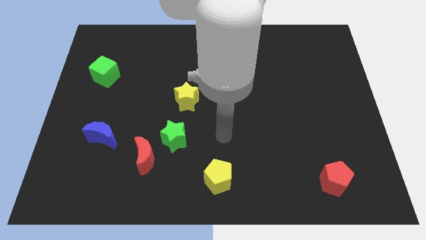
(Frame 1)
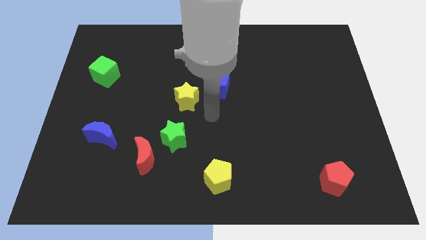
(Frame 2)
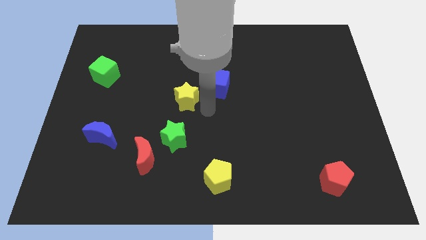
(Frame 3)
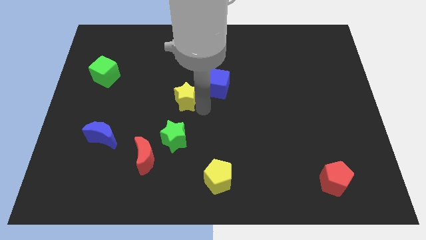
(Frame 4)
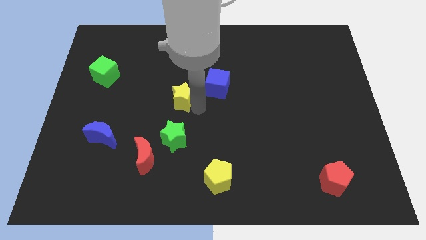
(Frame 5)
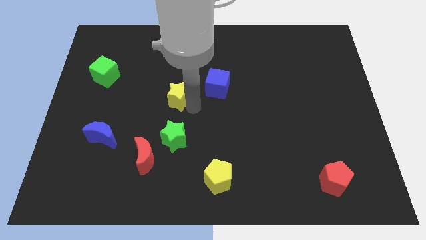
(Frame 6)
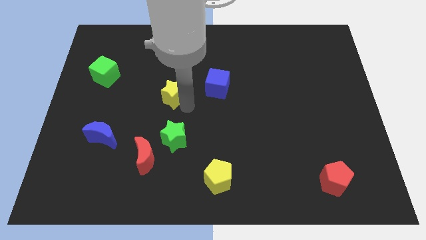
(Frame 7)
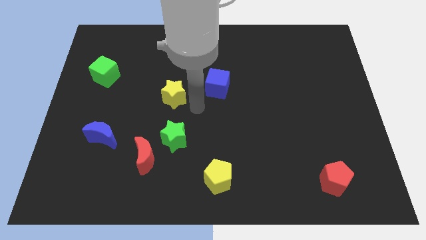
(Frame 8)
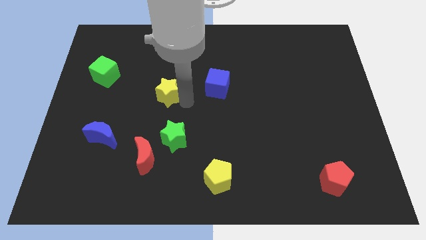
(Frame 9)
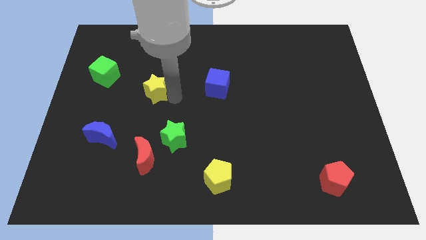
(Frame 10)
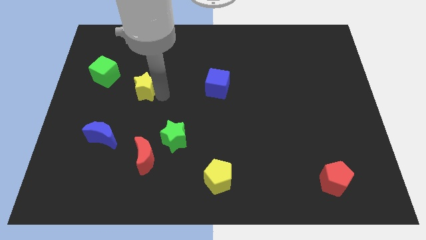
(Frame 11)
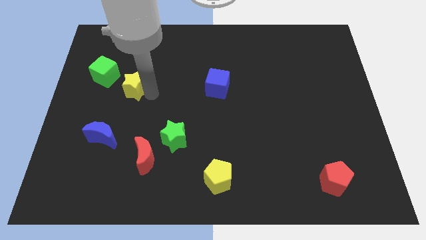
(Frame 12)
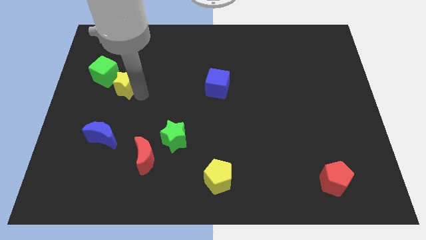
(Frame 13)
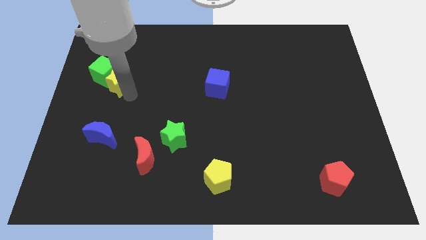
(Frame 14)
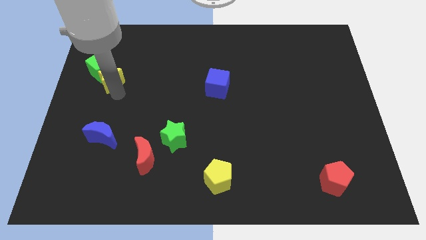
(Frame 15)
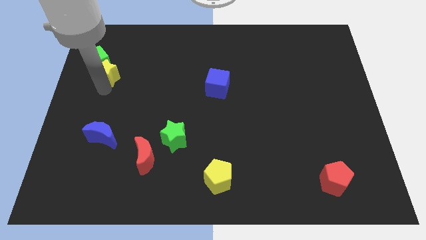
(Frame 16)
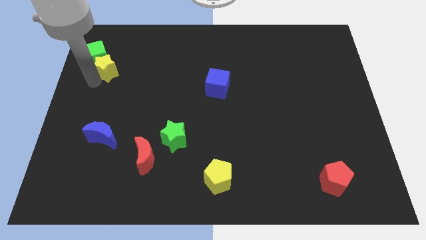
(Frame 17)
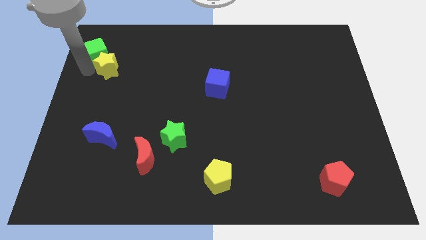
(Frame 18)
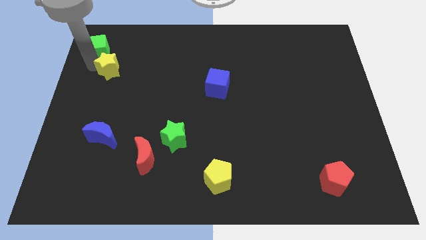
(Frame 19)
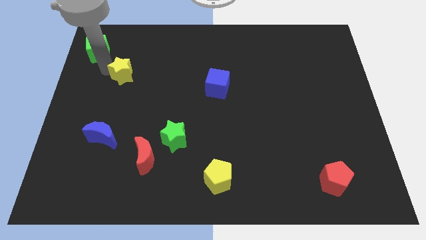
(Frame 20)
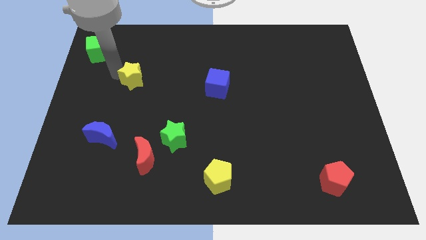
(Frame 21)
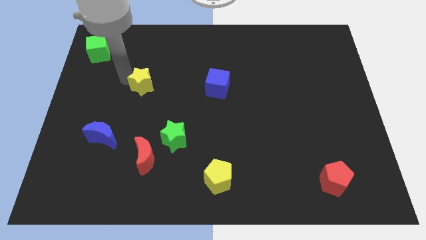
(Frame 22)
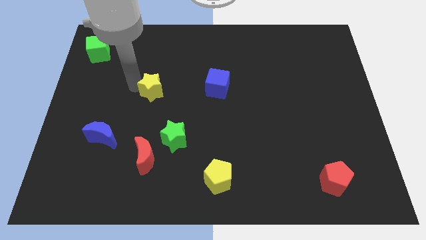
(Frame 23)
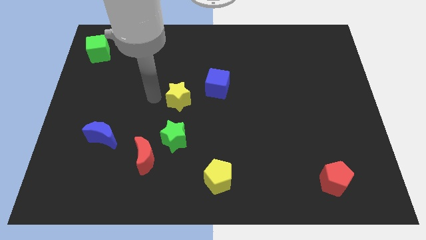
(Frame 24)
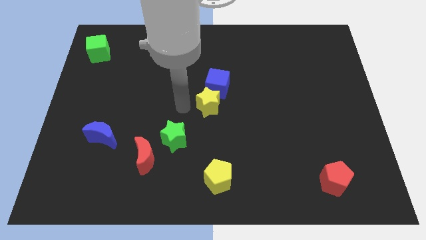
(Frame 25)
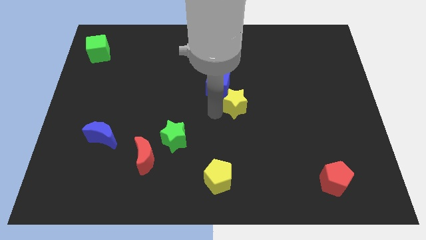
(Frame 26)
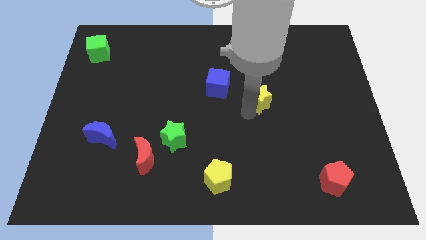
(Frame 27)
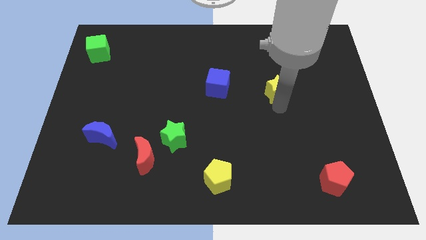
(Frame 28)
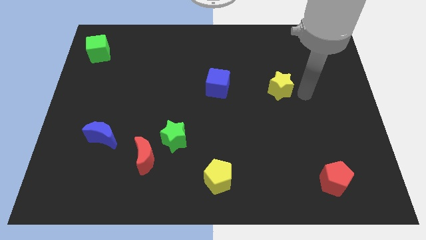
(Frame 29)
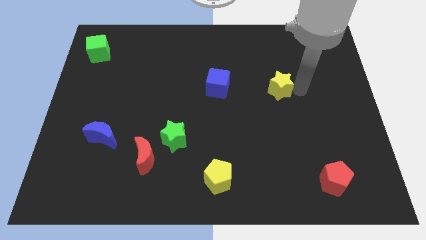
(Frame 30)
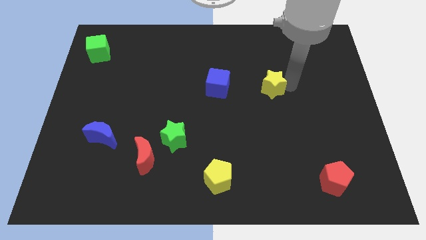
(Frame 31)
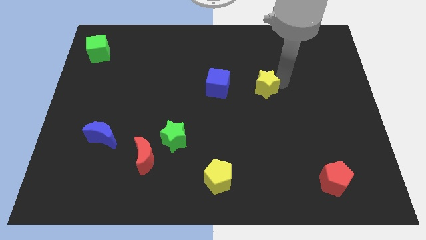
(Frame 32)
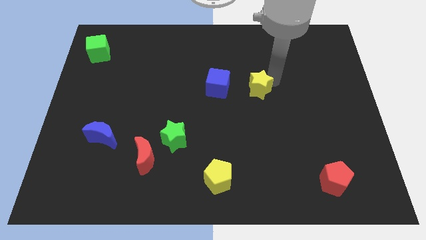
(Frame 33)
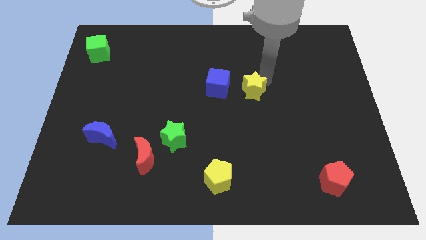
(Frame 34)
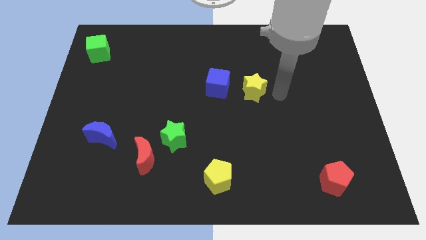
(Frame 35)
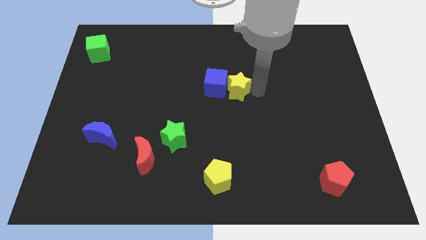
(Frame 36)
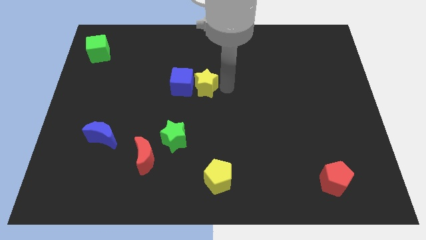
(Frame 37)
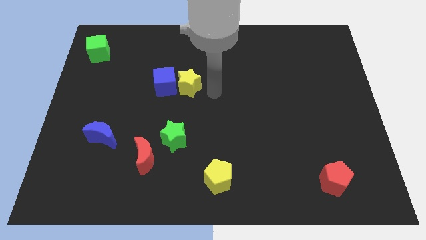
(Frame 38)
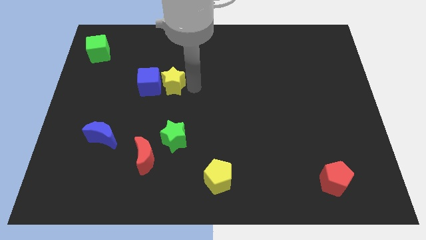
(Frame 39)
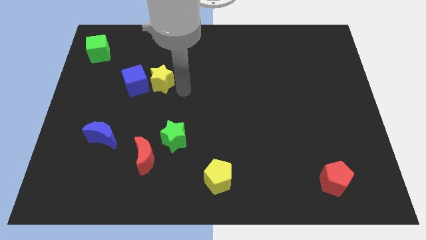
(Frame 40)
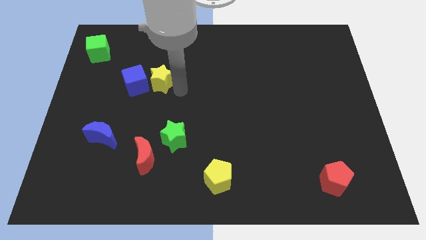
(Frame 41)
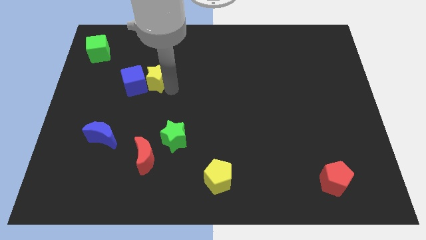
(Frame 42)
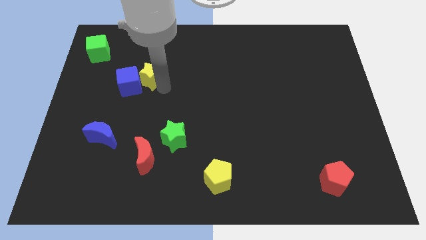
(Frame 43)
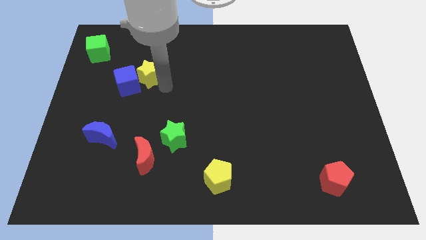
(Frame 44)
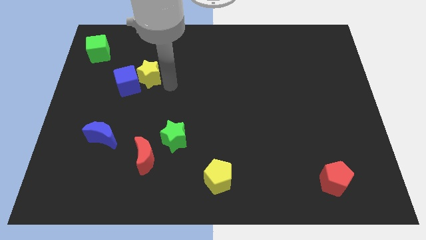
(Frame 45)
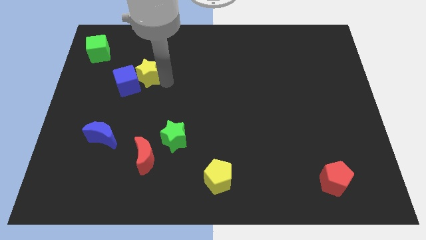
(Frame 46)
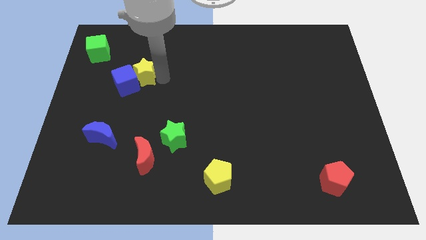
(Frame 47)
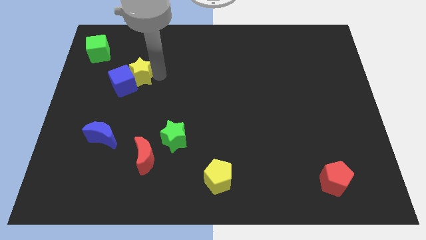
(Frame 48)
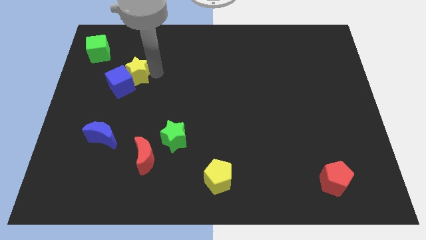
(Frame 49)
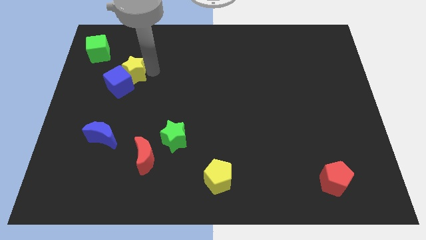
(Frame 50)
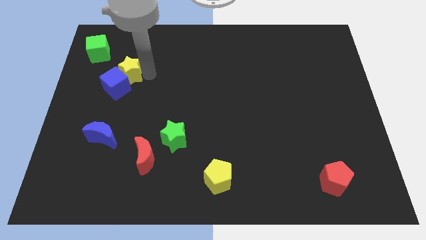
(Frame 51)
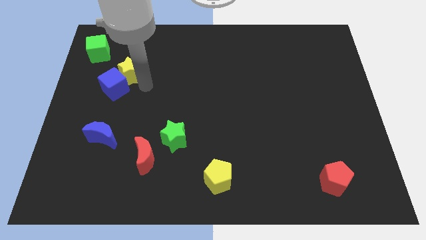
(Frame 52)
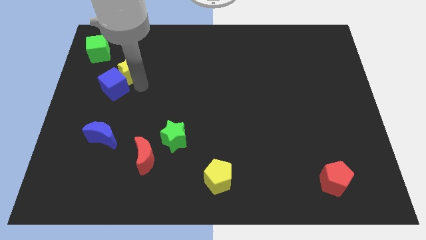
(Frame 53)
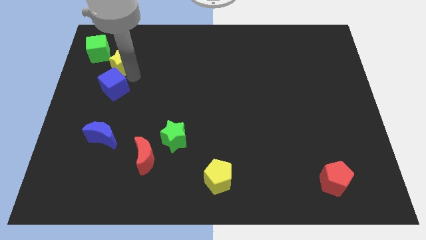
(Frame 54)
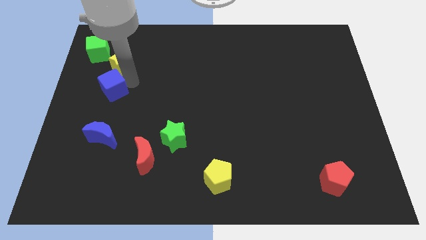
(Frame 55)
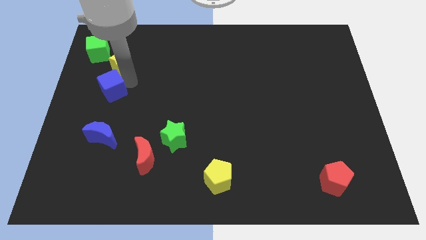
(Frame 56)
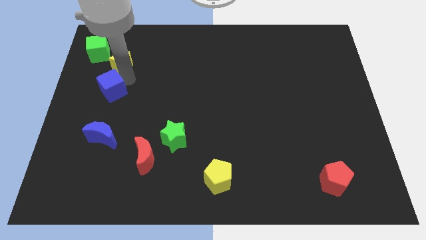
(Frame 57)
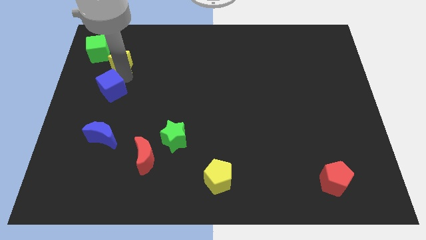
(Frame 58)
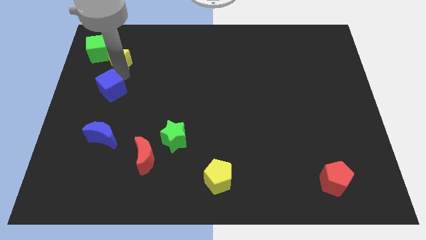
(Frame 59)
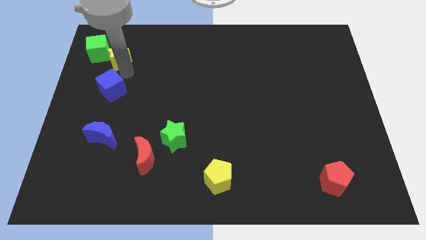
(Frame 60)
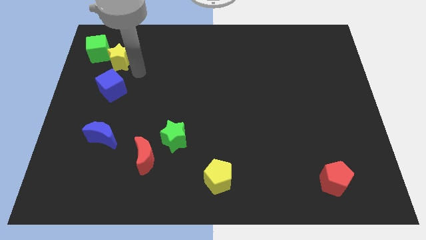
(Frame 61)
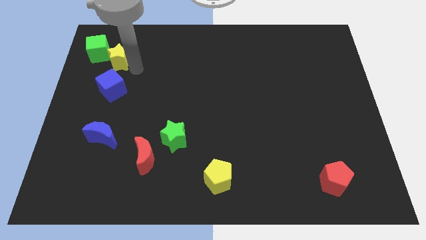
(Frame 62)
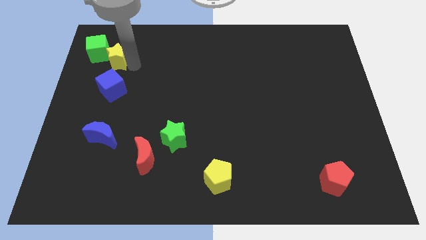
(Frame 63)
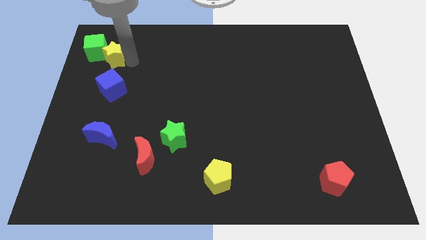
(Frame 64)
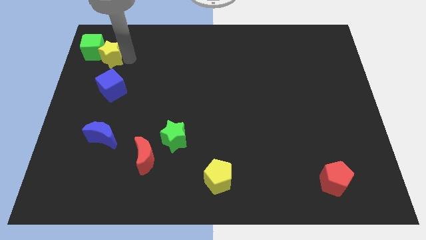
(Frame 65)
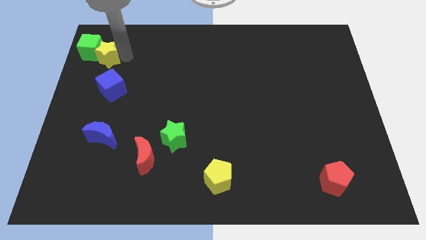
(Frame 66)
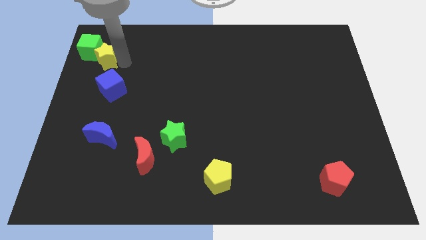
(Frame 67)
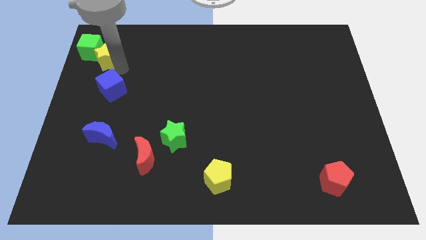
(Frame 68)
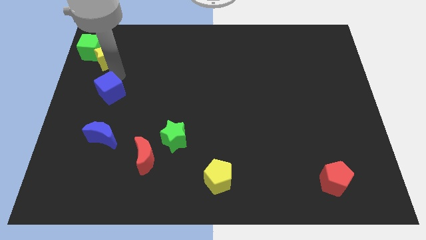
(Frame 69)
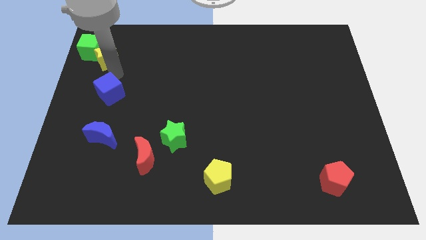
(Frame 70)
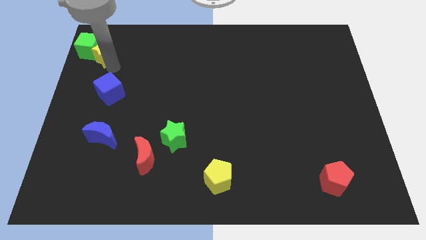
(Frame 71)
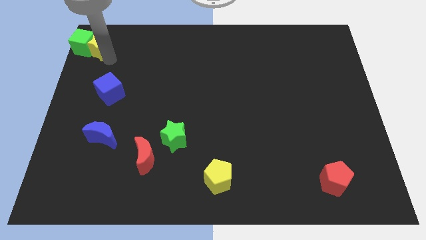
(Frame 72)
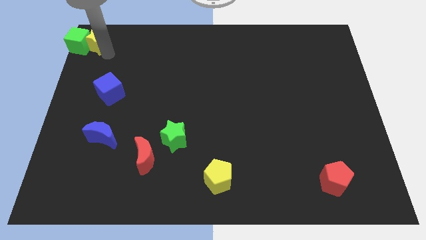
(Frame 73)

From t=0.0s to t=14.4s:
slide the yellow star to the top left
